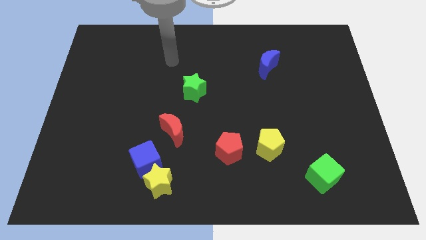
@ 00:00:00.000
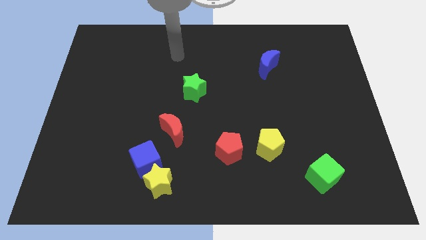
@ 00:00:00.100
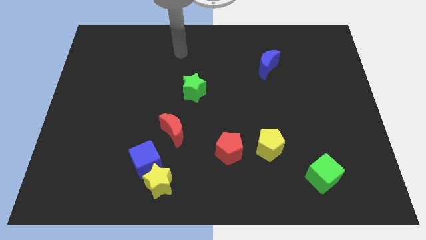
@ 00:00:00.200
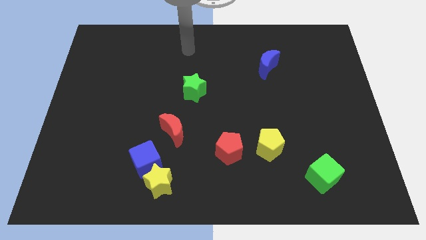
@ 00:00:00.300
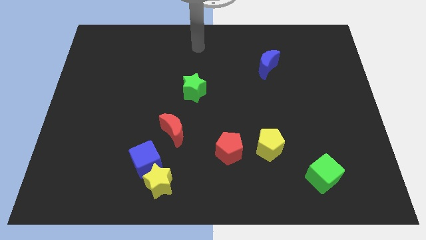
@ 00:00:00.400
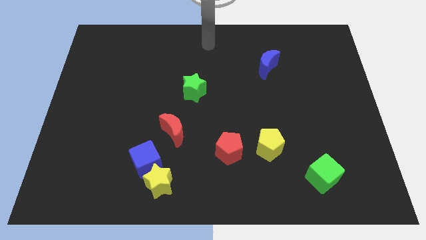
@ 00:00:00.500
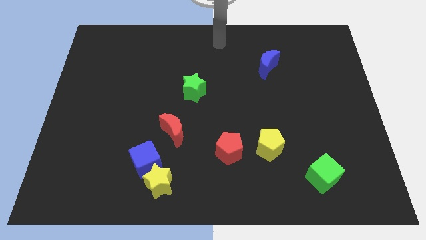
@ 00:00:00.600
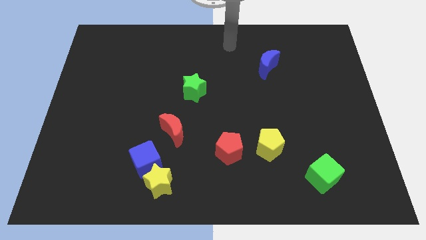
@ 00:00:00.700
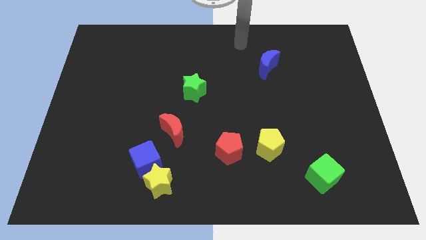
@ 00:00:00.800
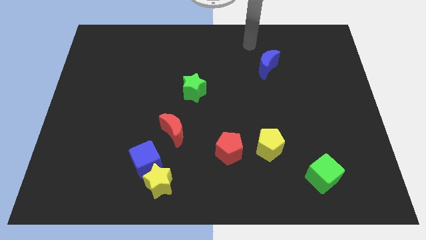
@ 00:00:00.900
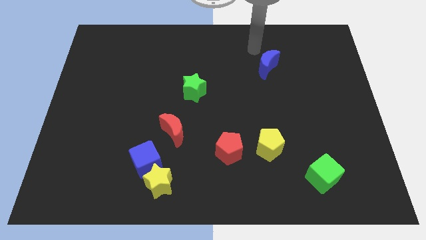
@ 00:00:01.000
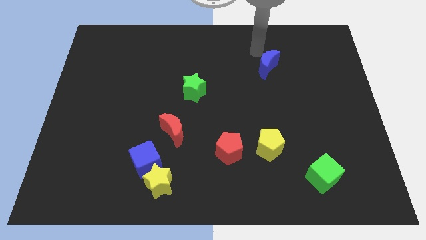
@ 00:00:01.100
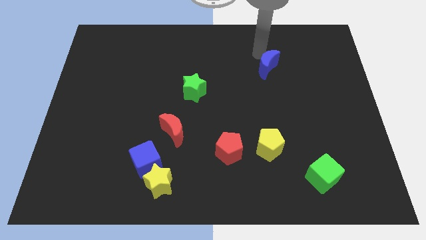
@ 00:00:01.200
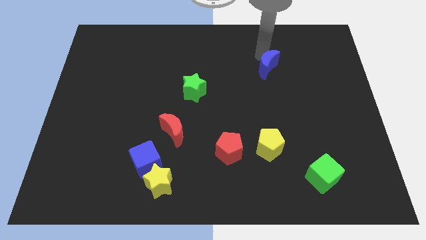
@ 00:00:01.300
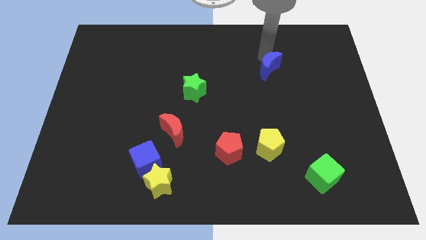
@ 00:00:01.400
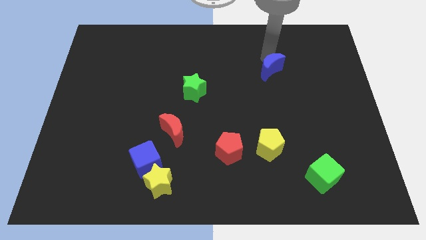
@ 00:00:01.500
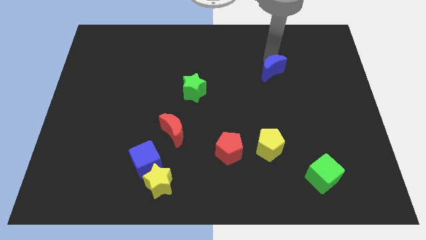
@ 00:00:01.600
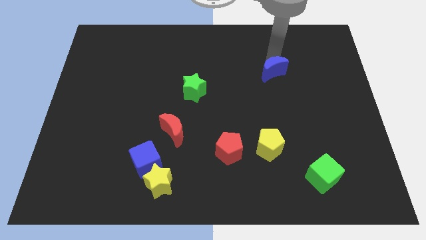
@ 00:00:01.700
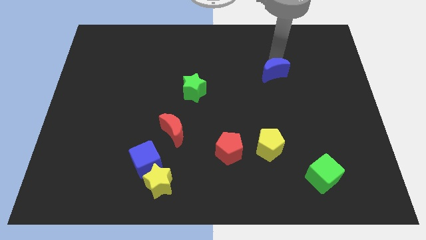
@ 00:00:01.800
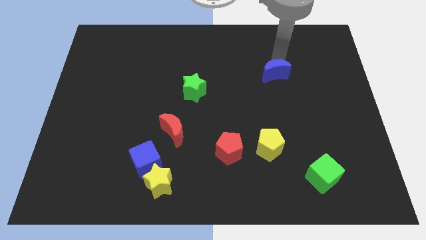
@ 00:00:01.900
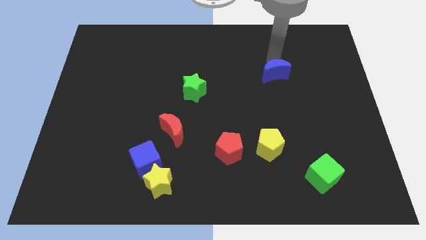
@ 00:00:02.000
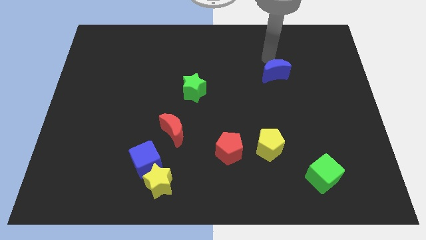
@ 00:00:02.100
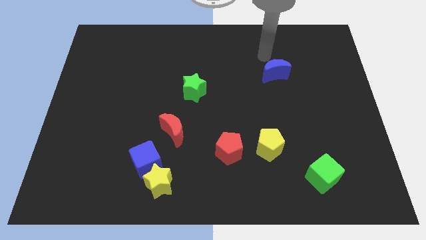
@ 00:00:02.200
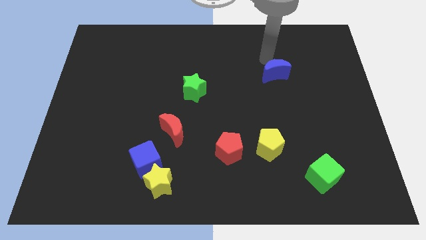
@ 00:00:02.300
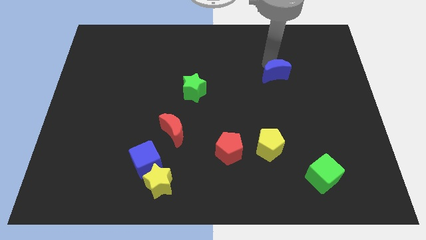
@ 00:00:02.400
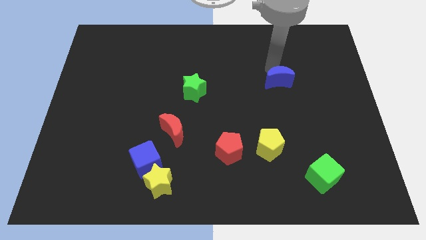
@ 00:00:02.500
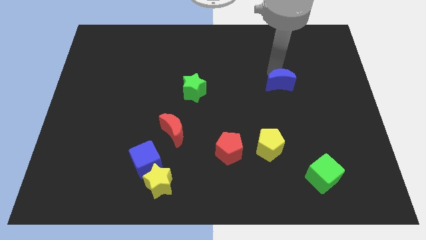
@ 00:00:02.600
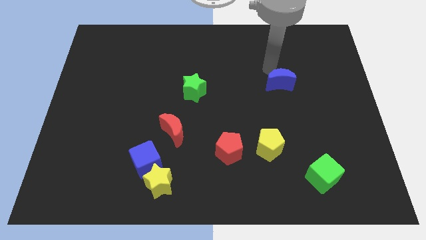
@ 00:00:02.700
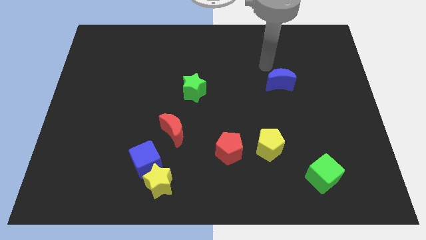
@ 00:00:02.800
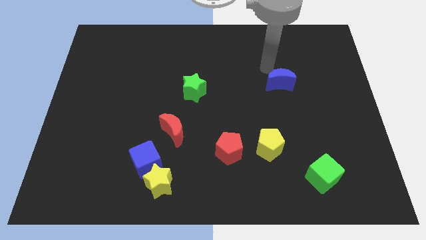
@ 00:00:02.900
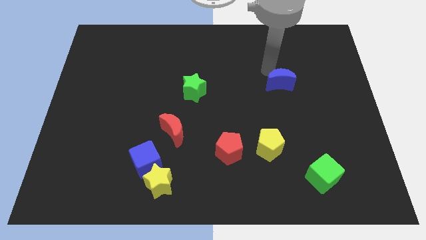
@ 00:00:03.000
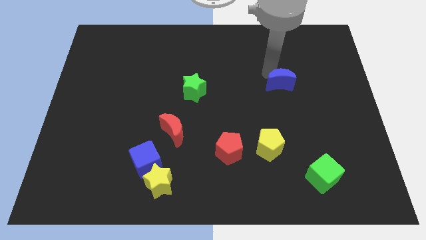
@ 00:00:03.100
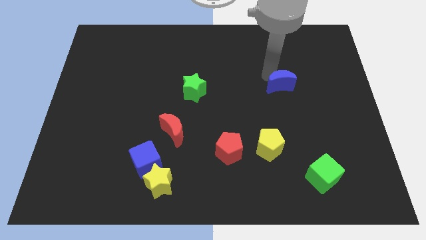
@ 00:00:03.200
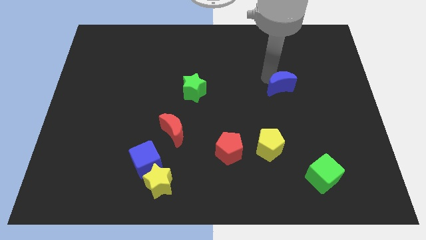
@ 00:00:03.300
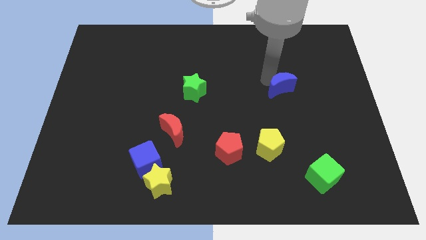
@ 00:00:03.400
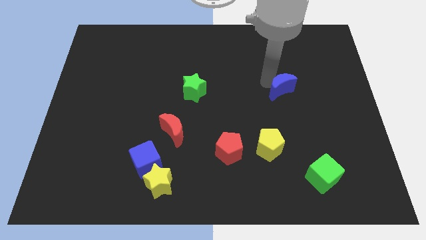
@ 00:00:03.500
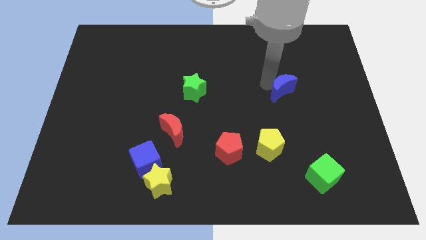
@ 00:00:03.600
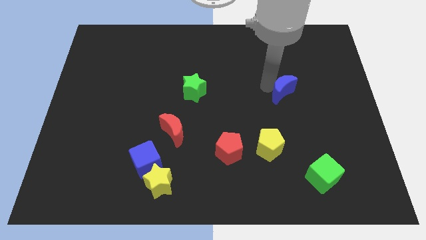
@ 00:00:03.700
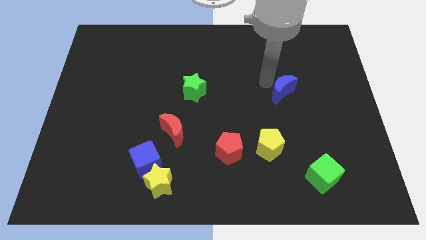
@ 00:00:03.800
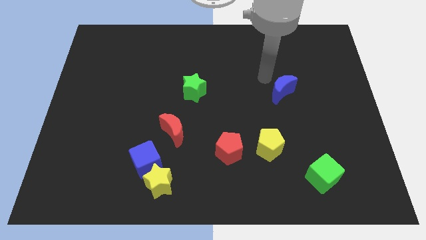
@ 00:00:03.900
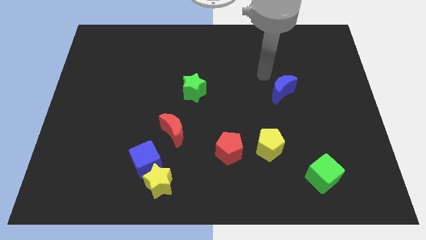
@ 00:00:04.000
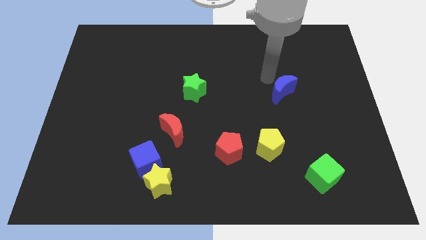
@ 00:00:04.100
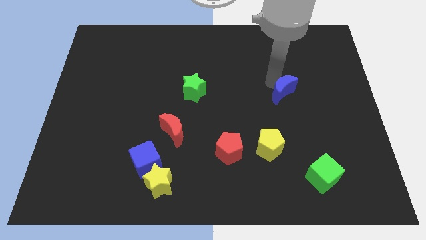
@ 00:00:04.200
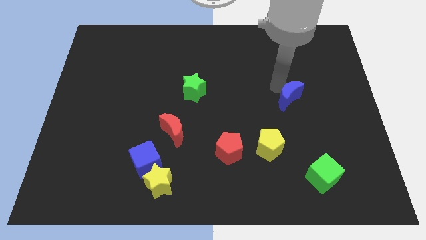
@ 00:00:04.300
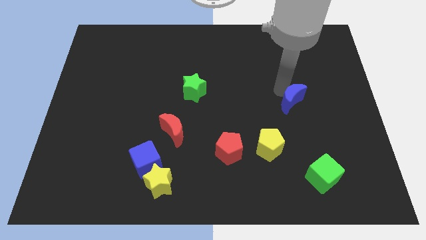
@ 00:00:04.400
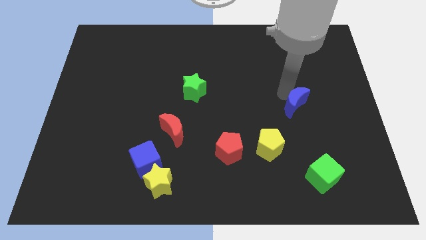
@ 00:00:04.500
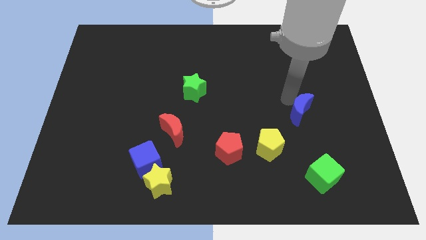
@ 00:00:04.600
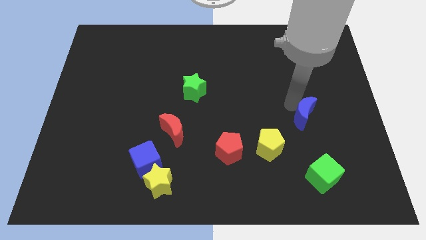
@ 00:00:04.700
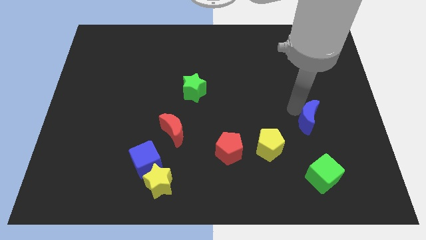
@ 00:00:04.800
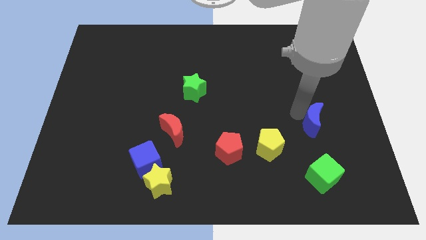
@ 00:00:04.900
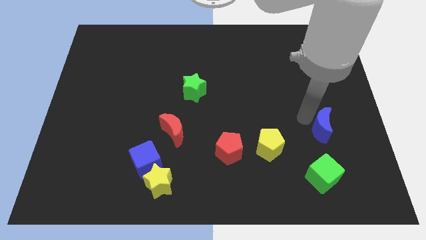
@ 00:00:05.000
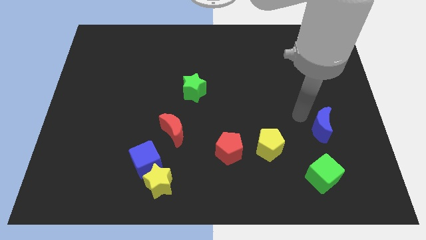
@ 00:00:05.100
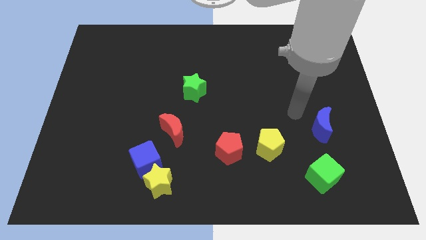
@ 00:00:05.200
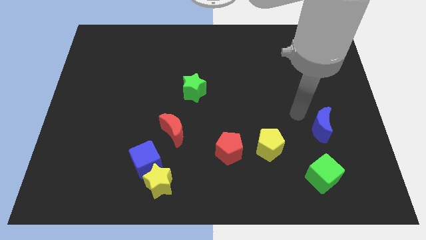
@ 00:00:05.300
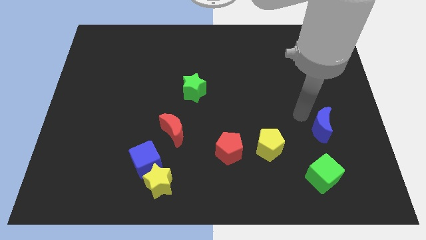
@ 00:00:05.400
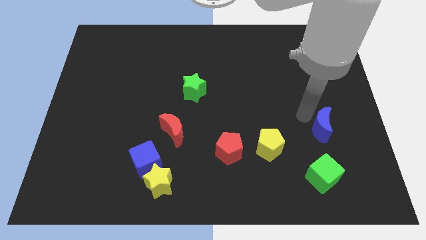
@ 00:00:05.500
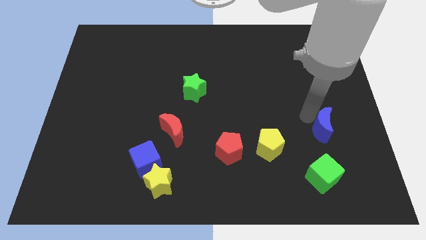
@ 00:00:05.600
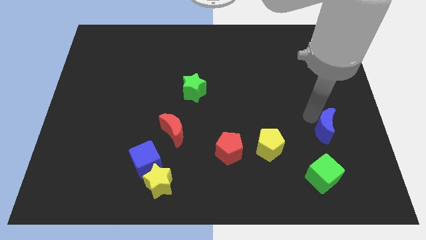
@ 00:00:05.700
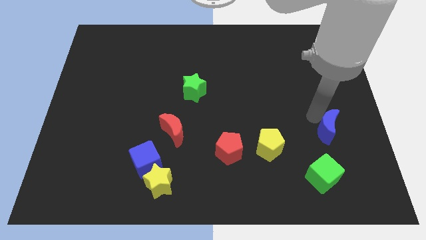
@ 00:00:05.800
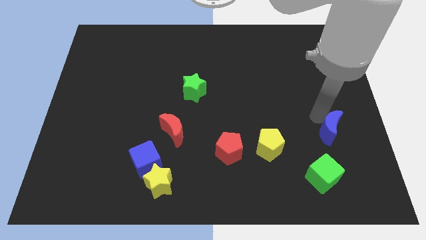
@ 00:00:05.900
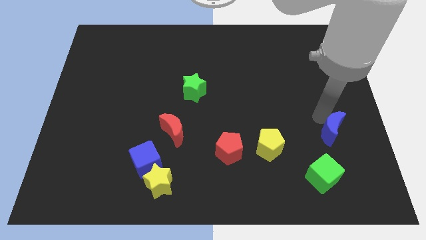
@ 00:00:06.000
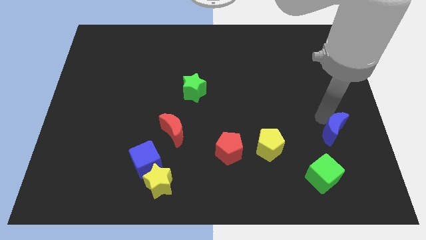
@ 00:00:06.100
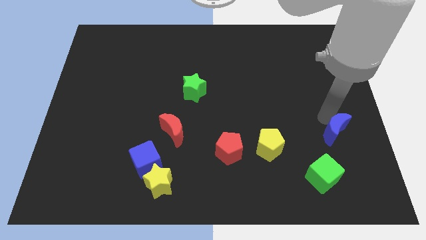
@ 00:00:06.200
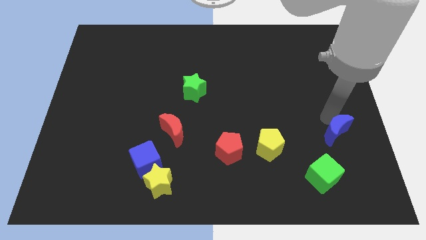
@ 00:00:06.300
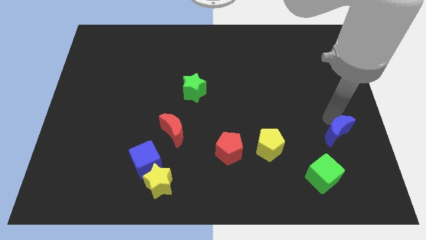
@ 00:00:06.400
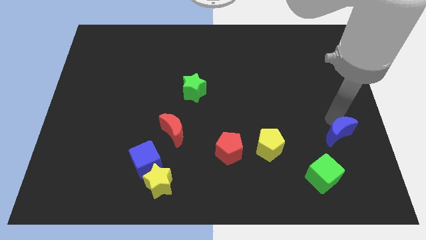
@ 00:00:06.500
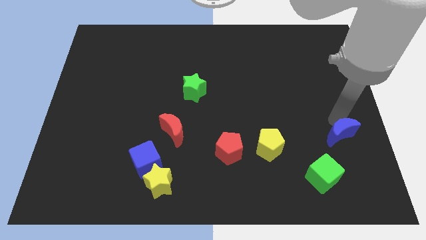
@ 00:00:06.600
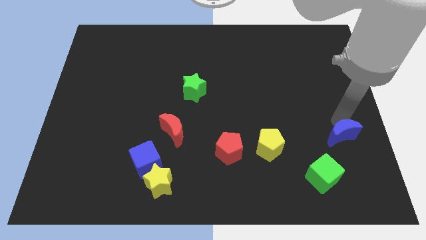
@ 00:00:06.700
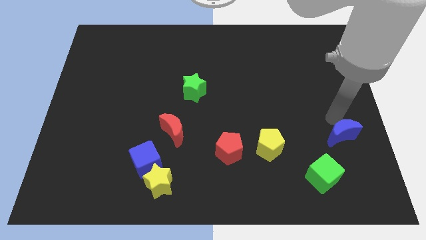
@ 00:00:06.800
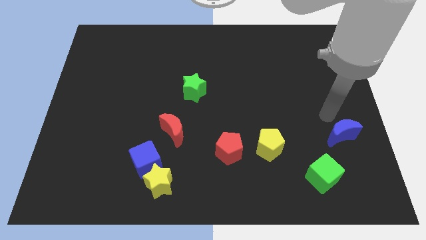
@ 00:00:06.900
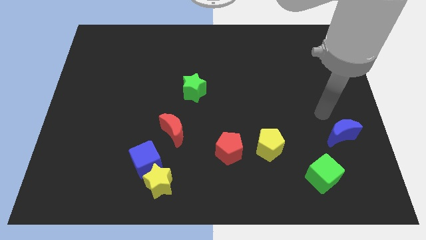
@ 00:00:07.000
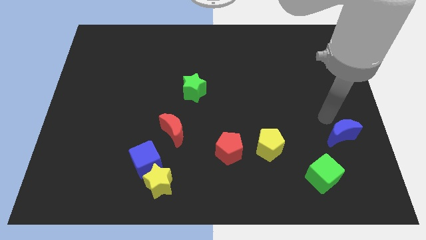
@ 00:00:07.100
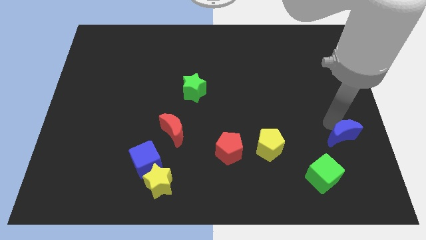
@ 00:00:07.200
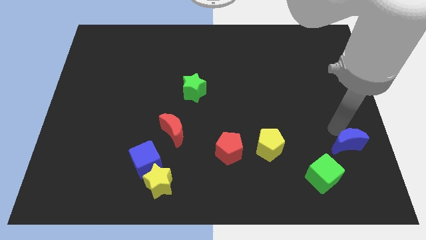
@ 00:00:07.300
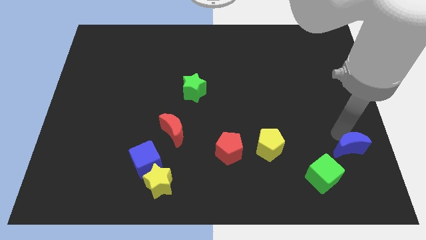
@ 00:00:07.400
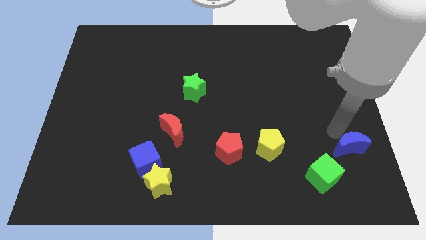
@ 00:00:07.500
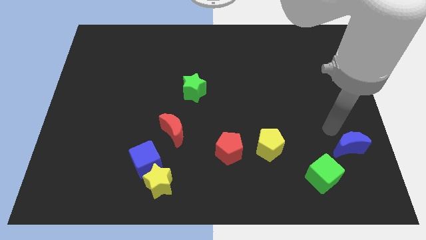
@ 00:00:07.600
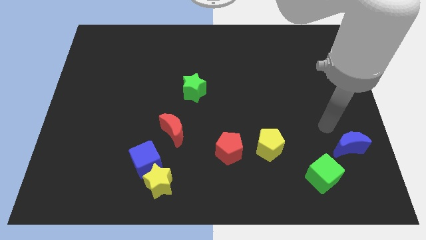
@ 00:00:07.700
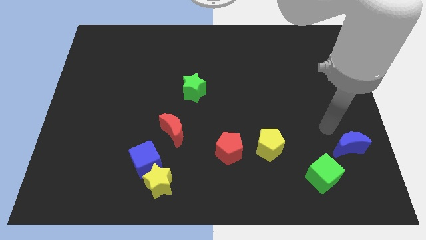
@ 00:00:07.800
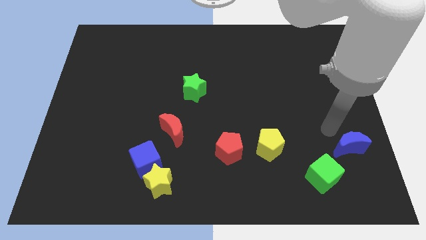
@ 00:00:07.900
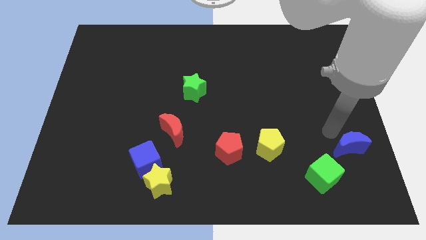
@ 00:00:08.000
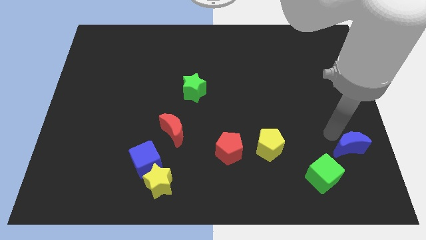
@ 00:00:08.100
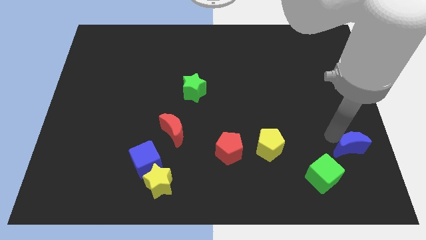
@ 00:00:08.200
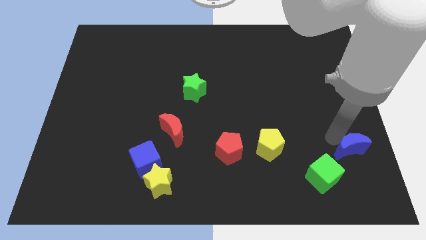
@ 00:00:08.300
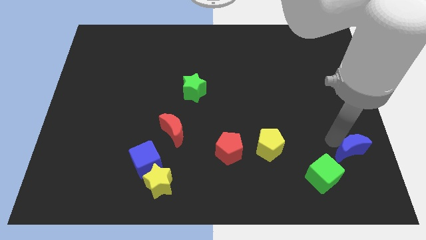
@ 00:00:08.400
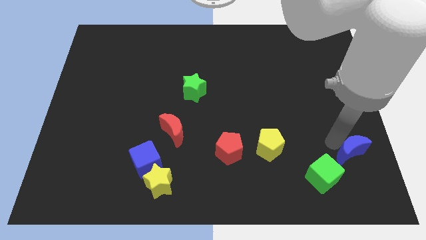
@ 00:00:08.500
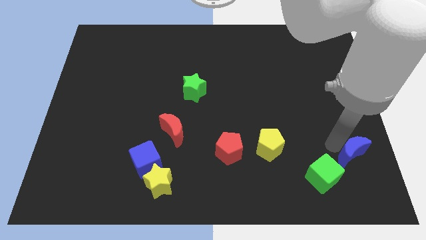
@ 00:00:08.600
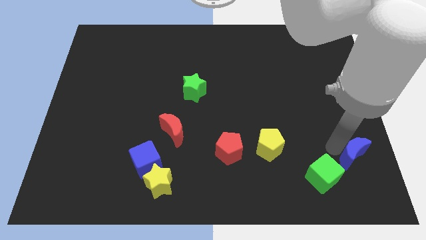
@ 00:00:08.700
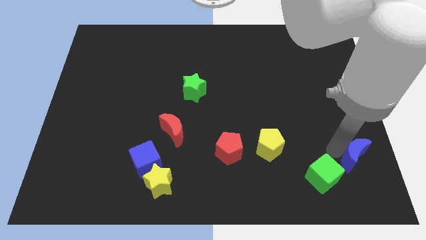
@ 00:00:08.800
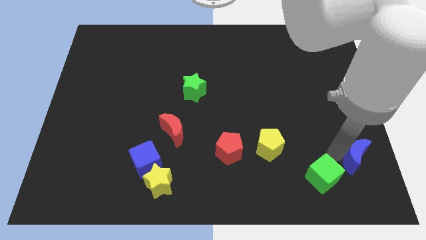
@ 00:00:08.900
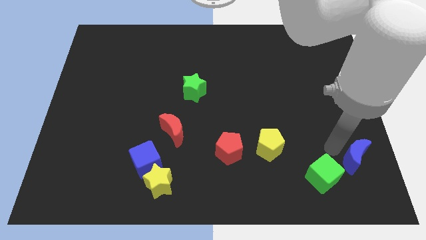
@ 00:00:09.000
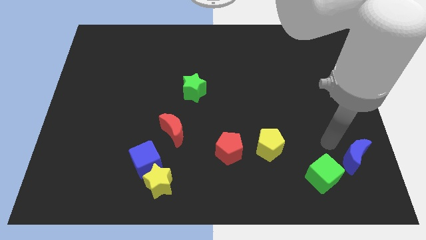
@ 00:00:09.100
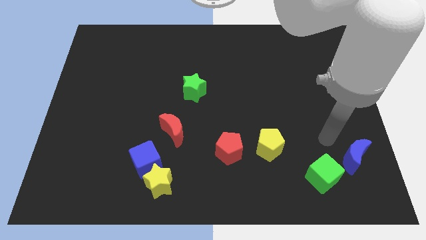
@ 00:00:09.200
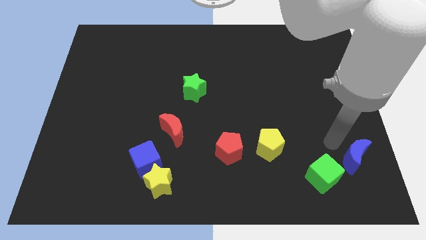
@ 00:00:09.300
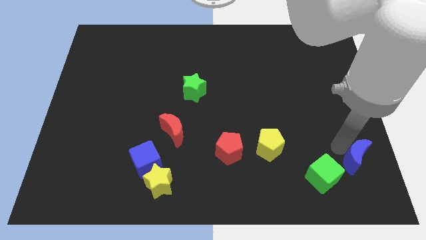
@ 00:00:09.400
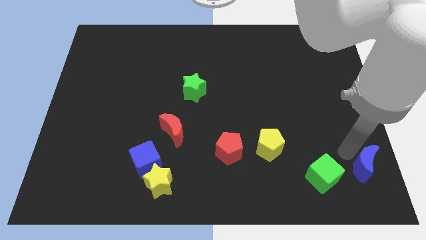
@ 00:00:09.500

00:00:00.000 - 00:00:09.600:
put the blue moon to the bottom right corner
